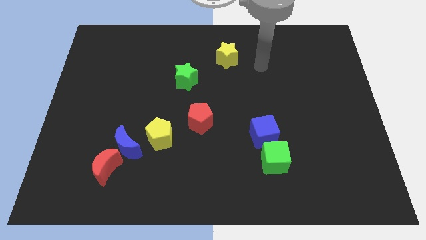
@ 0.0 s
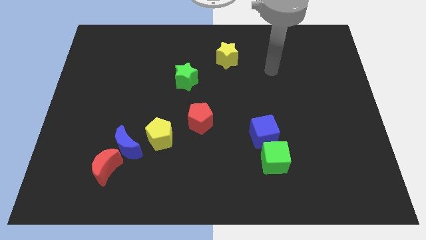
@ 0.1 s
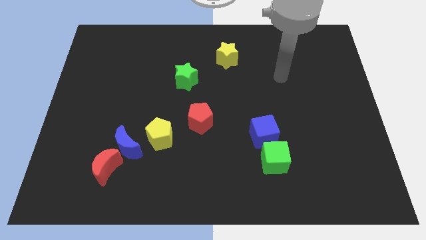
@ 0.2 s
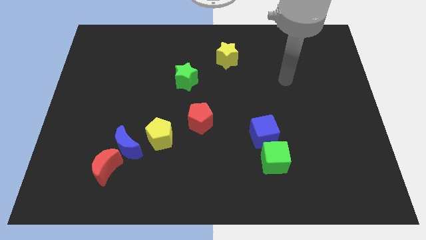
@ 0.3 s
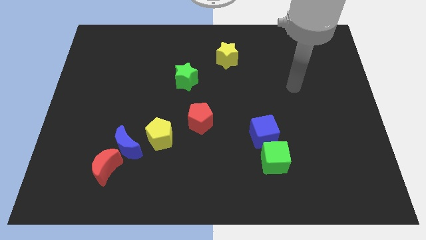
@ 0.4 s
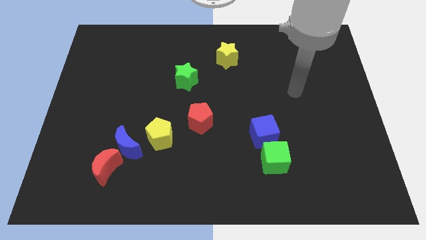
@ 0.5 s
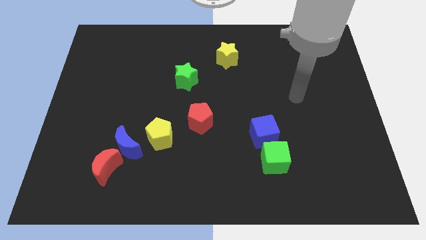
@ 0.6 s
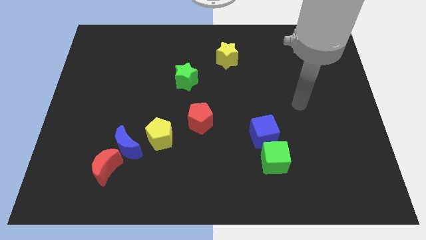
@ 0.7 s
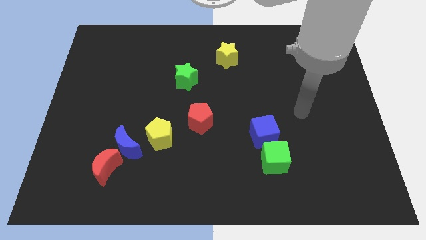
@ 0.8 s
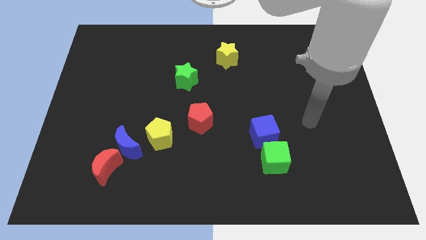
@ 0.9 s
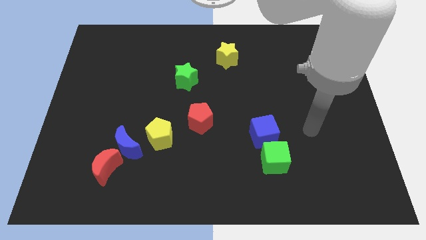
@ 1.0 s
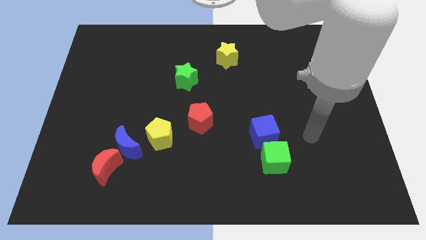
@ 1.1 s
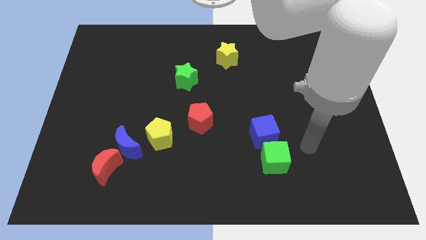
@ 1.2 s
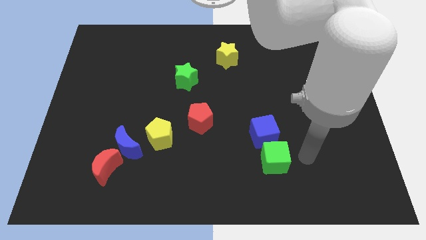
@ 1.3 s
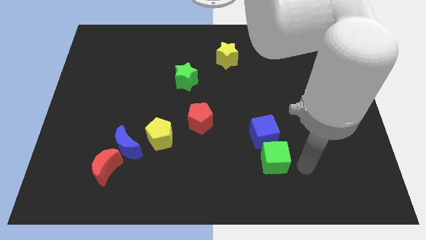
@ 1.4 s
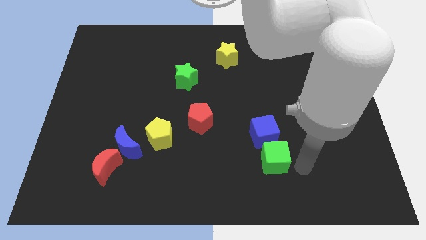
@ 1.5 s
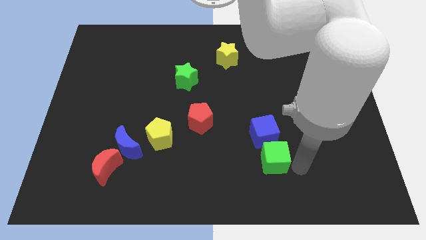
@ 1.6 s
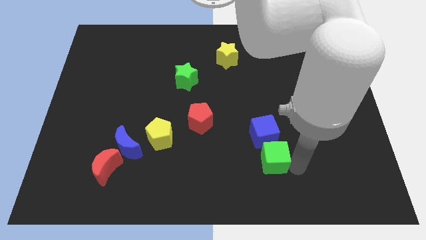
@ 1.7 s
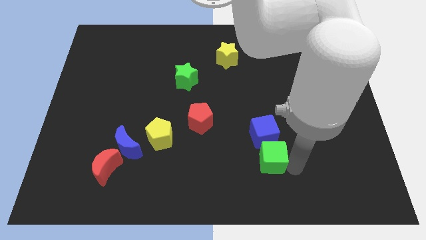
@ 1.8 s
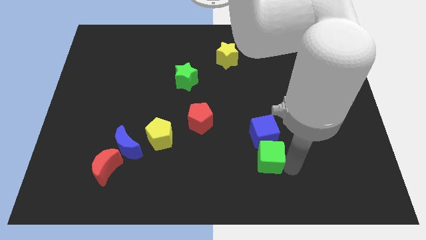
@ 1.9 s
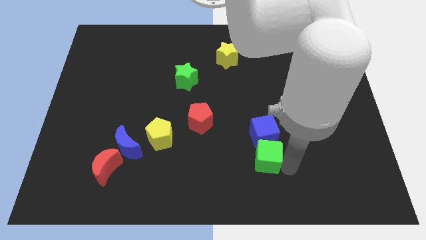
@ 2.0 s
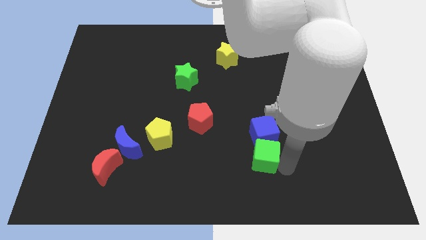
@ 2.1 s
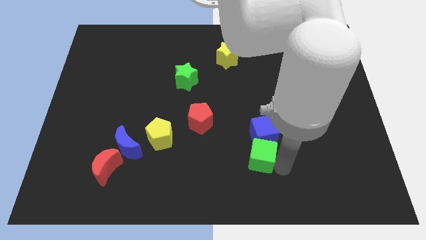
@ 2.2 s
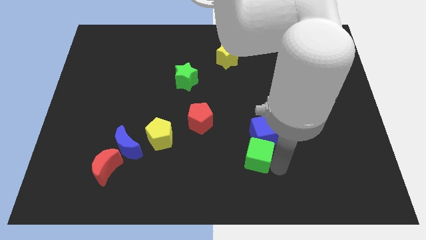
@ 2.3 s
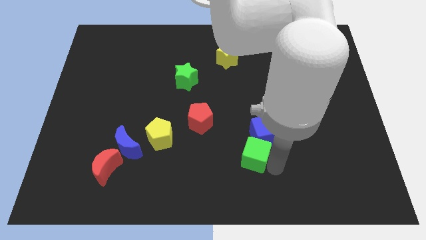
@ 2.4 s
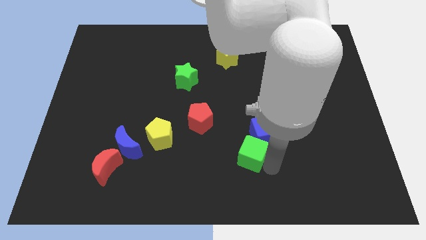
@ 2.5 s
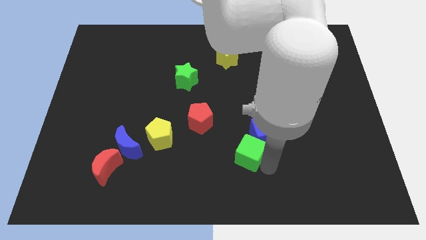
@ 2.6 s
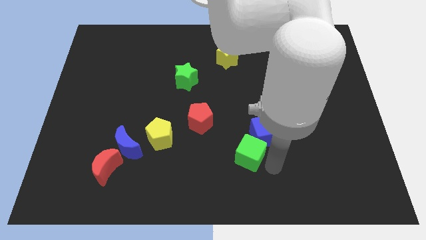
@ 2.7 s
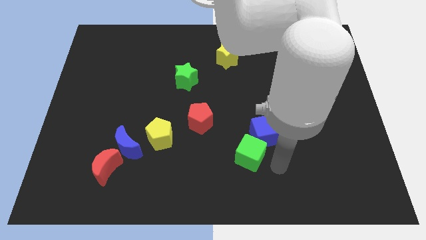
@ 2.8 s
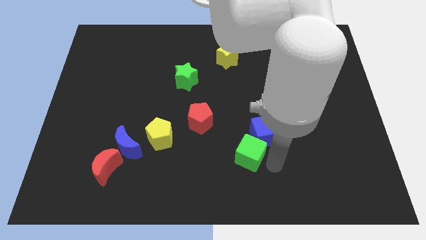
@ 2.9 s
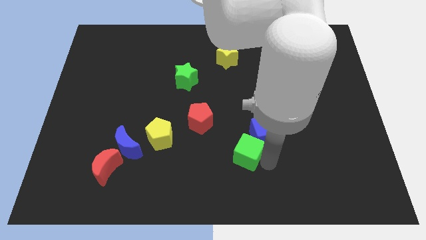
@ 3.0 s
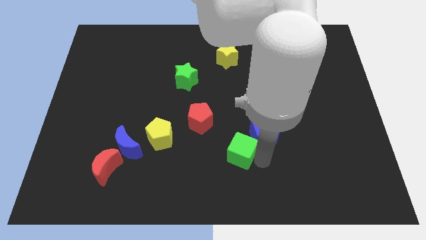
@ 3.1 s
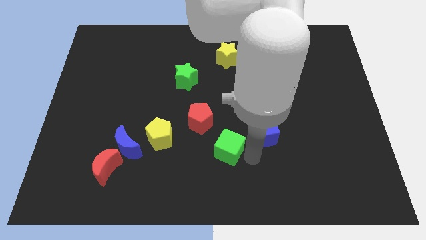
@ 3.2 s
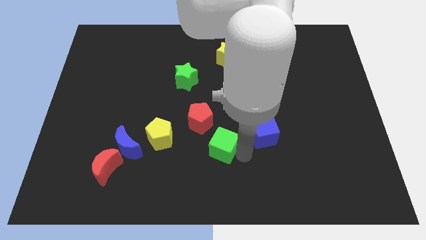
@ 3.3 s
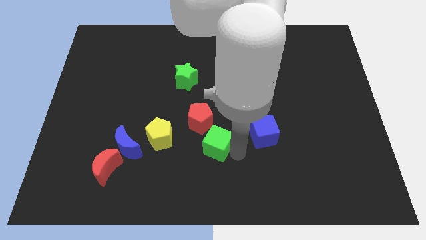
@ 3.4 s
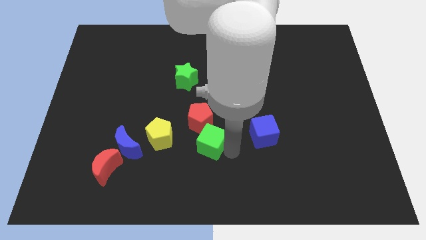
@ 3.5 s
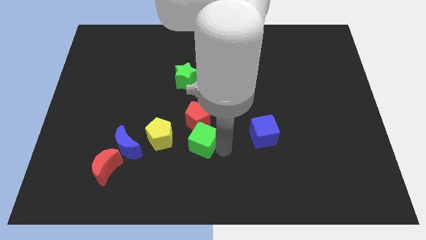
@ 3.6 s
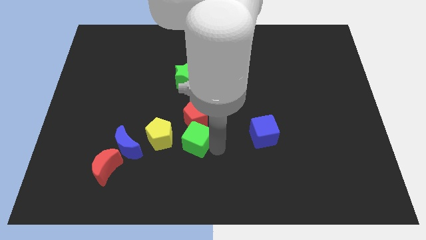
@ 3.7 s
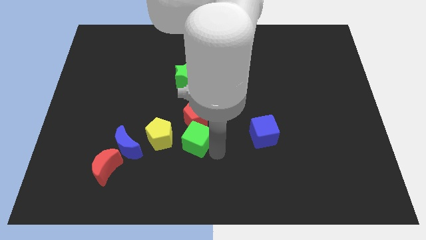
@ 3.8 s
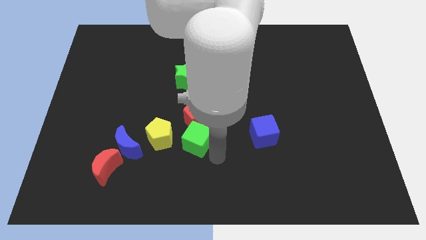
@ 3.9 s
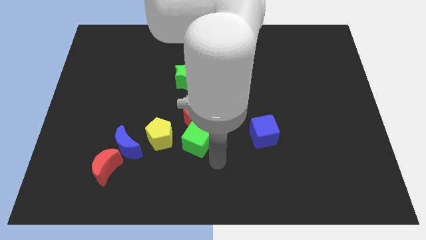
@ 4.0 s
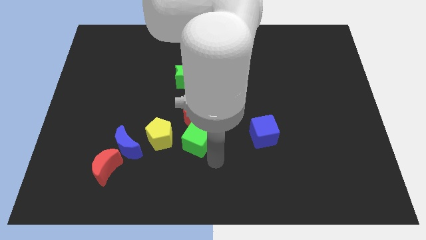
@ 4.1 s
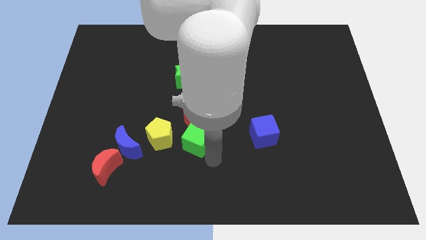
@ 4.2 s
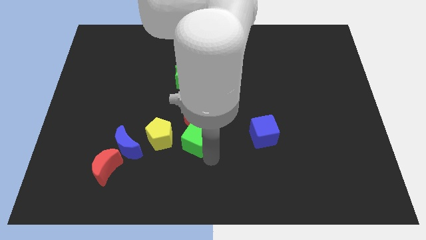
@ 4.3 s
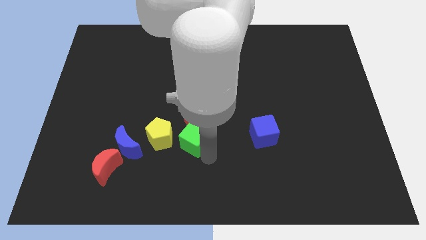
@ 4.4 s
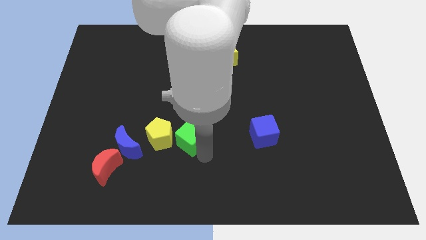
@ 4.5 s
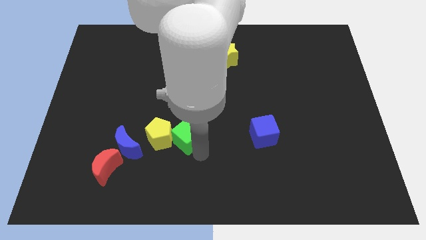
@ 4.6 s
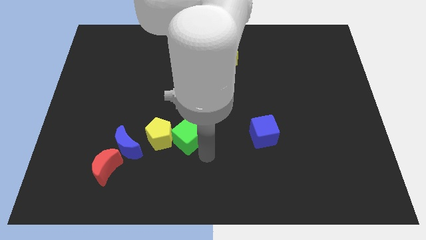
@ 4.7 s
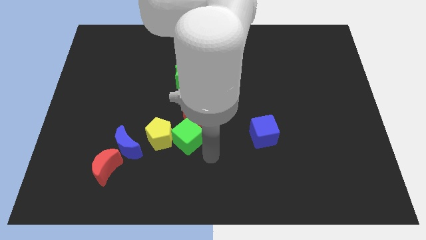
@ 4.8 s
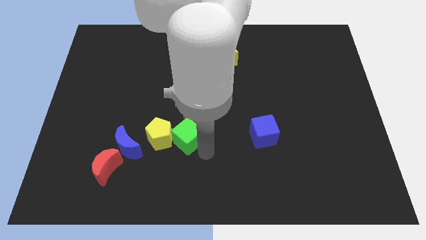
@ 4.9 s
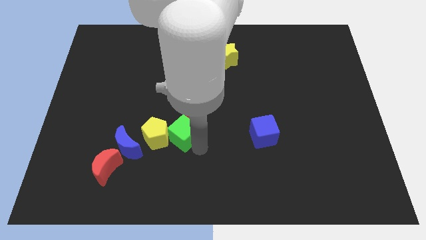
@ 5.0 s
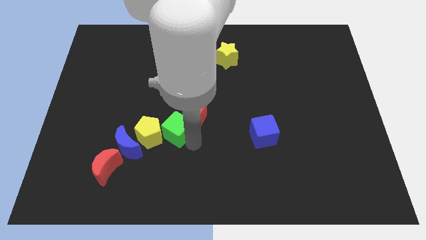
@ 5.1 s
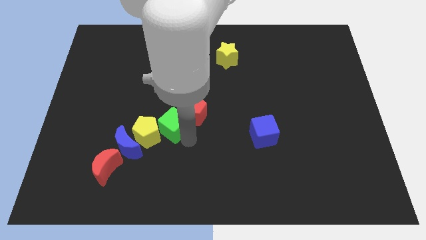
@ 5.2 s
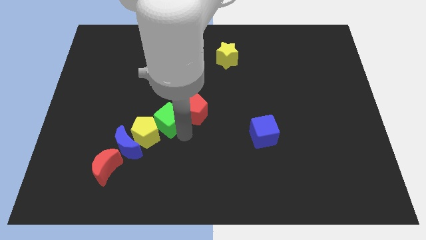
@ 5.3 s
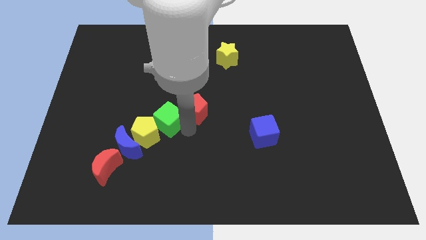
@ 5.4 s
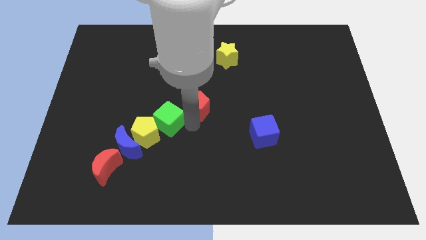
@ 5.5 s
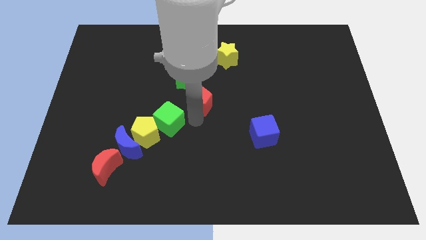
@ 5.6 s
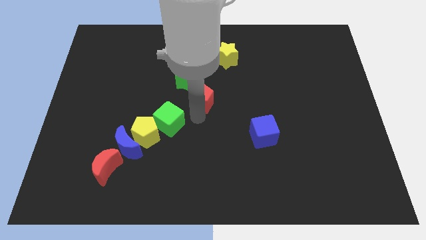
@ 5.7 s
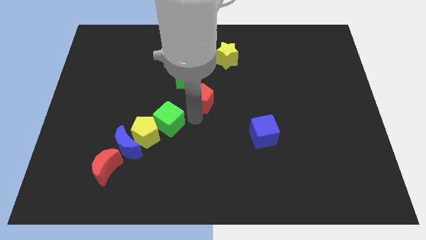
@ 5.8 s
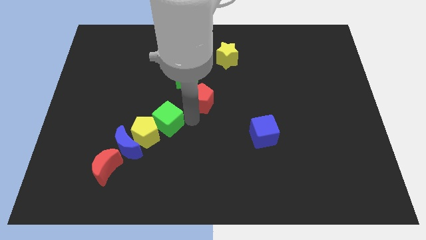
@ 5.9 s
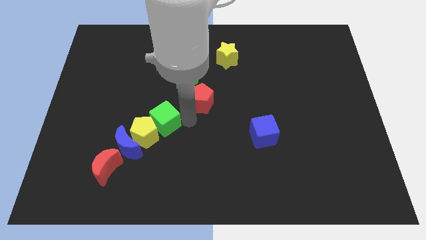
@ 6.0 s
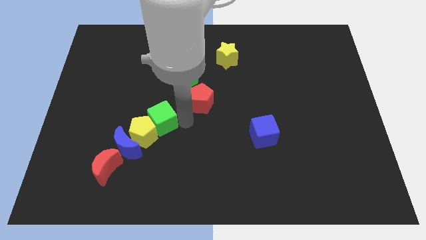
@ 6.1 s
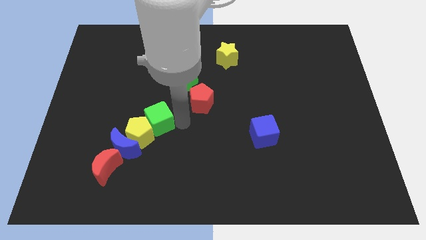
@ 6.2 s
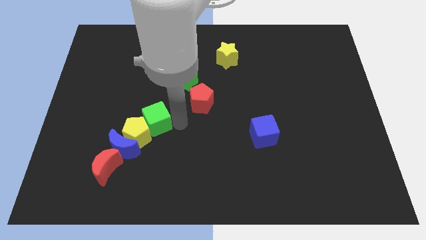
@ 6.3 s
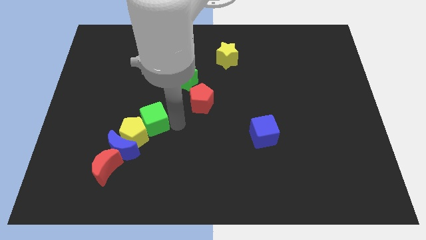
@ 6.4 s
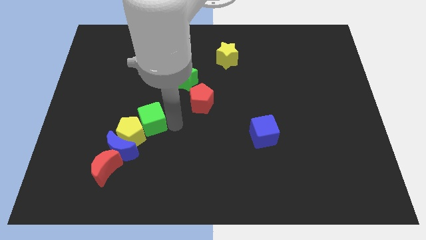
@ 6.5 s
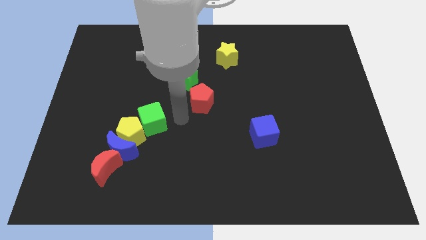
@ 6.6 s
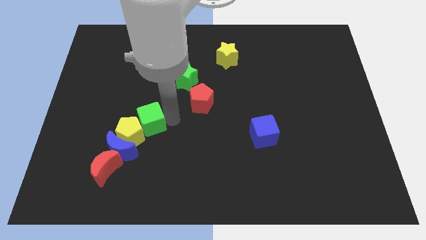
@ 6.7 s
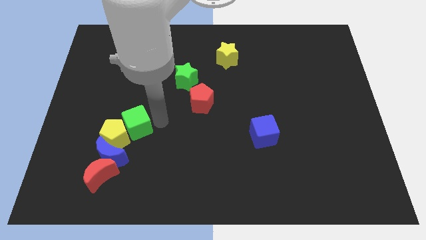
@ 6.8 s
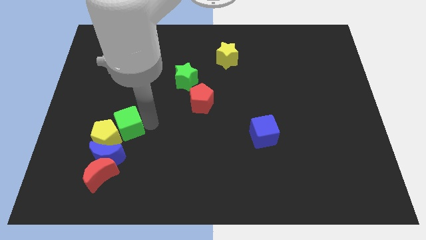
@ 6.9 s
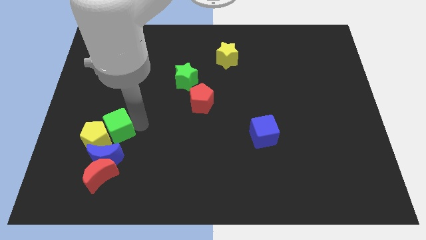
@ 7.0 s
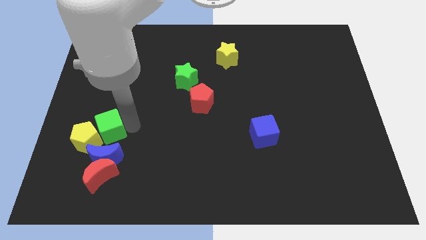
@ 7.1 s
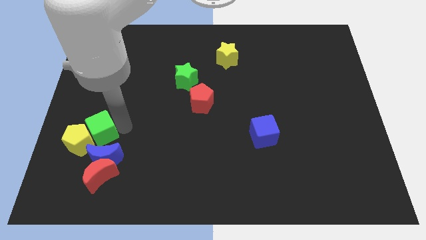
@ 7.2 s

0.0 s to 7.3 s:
slide the green cube to the top left of the blue moon
